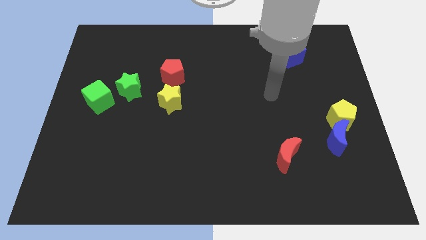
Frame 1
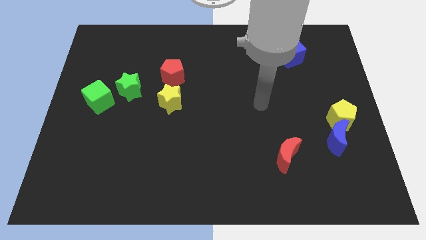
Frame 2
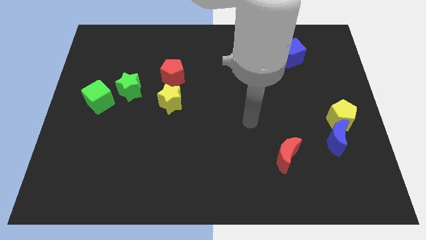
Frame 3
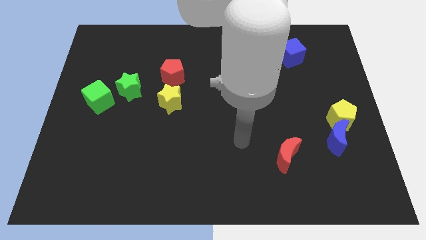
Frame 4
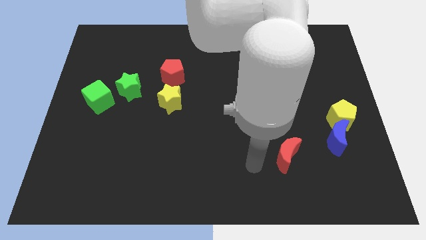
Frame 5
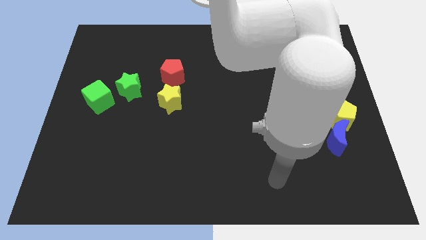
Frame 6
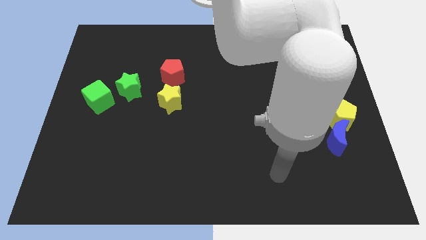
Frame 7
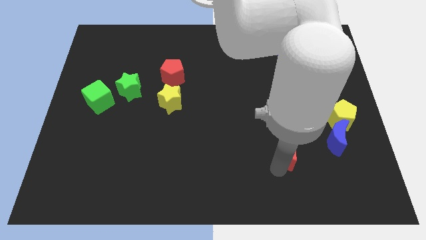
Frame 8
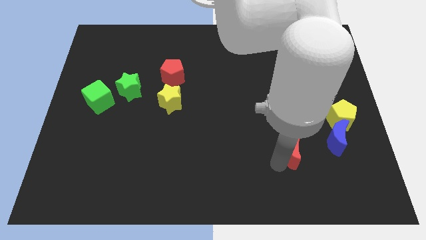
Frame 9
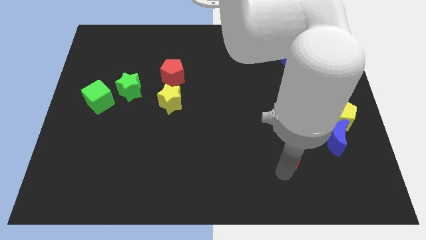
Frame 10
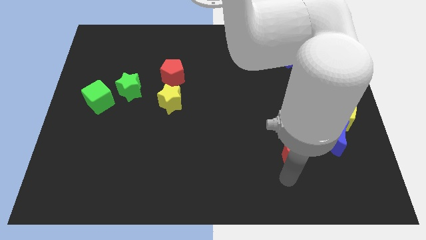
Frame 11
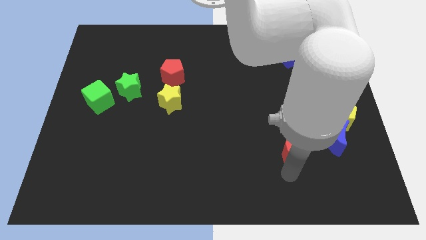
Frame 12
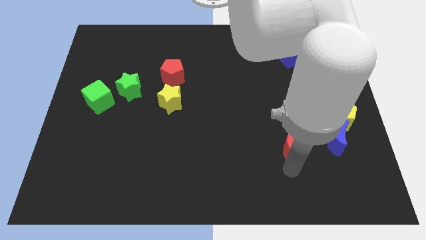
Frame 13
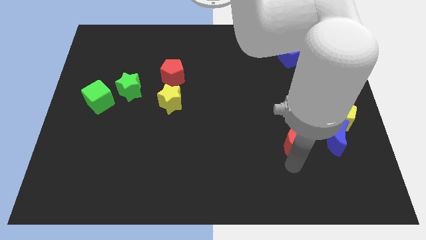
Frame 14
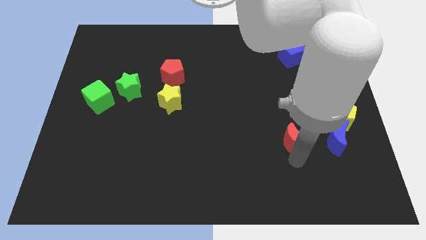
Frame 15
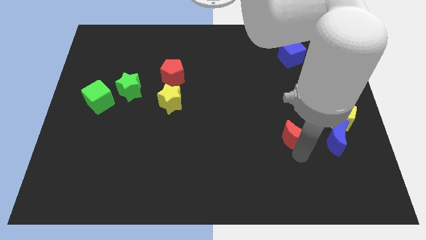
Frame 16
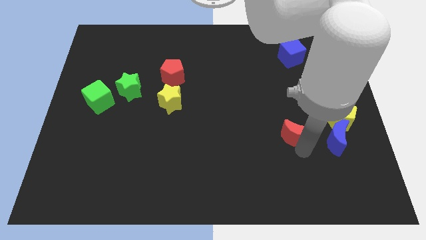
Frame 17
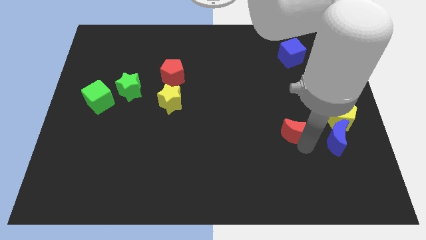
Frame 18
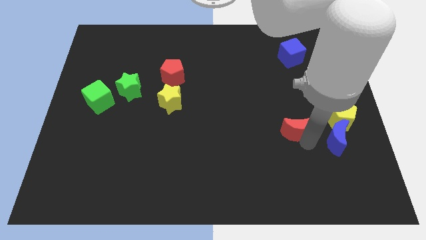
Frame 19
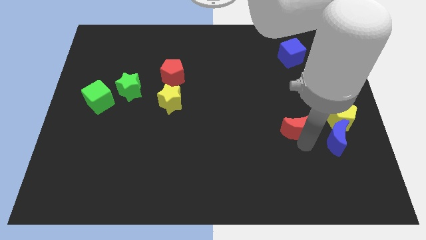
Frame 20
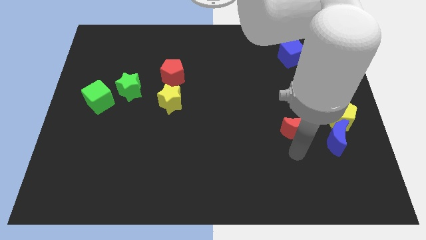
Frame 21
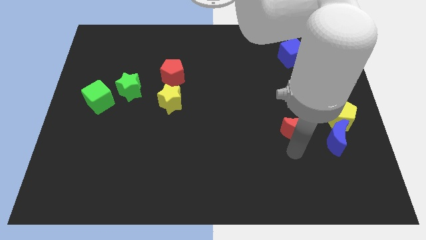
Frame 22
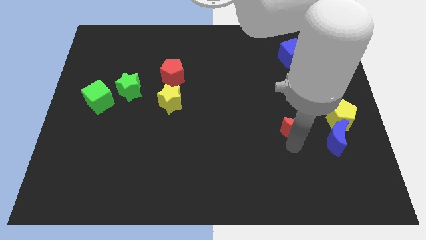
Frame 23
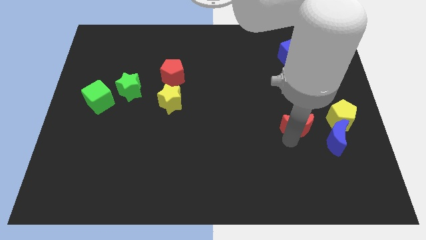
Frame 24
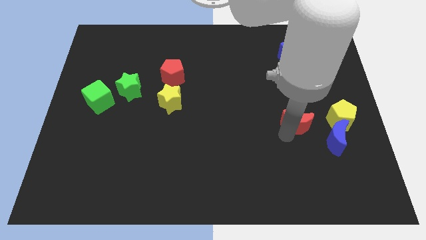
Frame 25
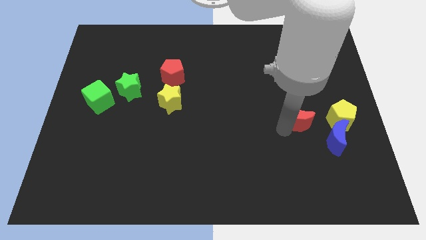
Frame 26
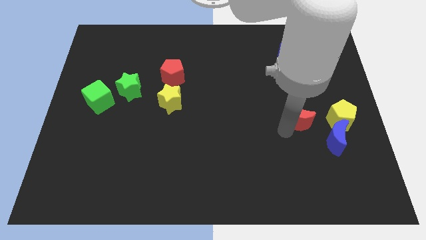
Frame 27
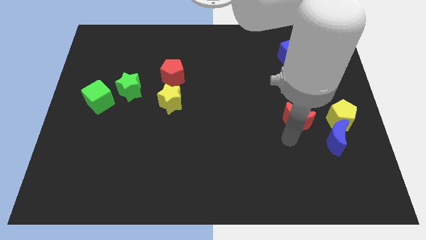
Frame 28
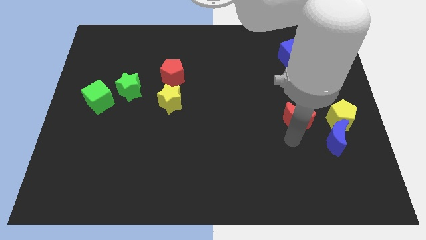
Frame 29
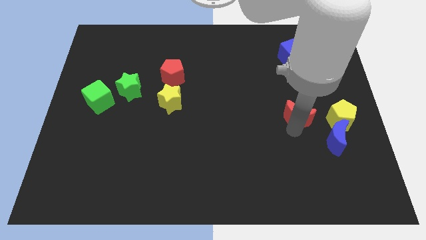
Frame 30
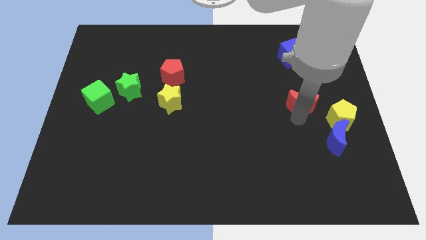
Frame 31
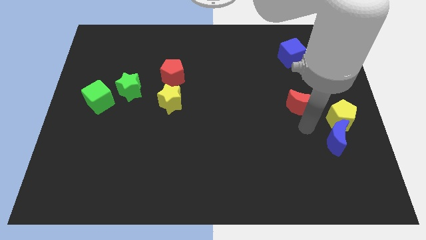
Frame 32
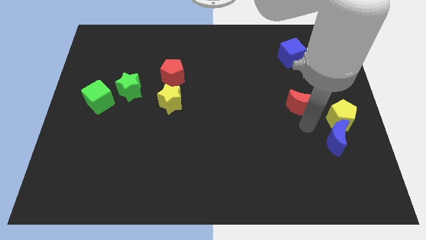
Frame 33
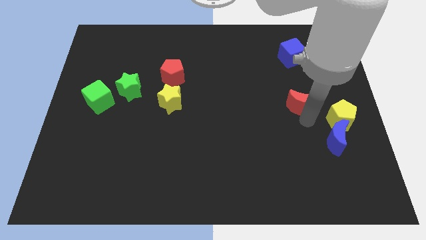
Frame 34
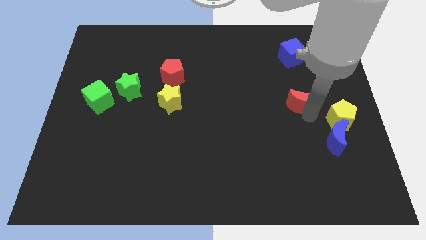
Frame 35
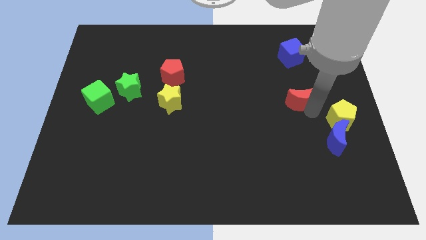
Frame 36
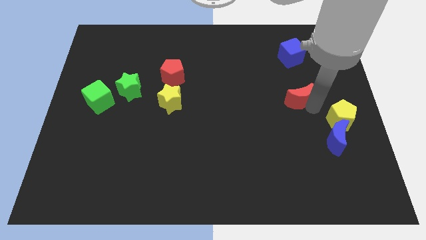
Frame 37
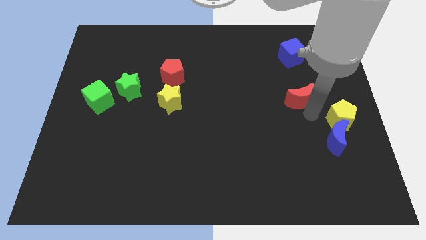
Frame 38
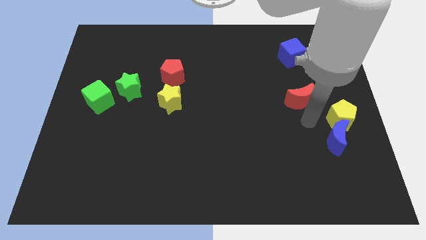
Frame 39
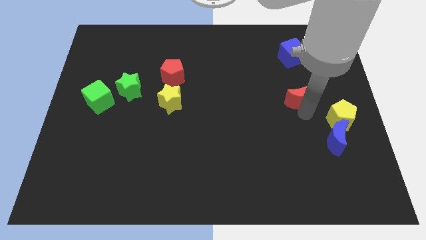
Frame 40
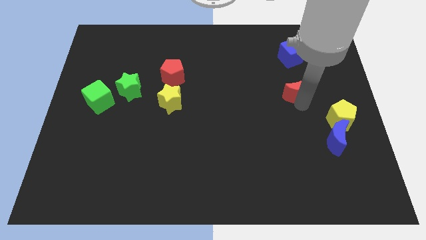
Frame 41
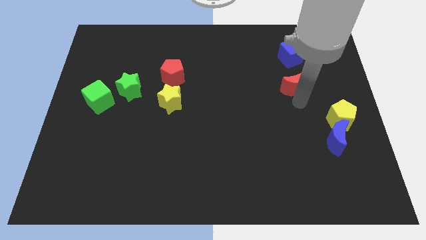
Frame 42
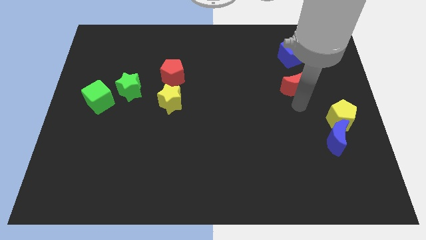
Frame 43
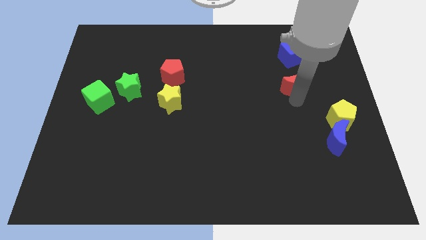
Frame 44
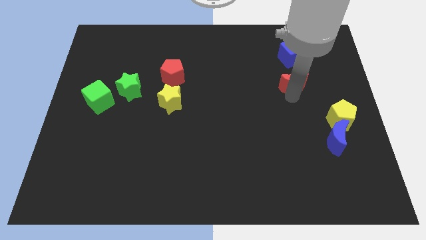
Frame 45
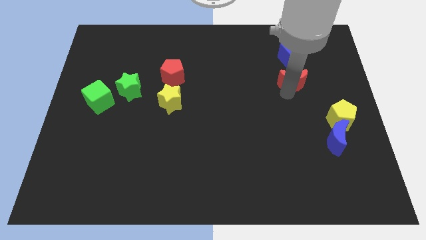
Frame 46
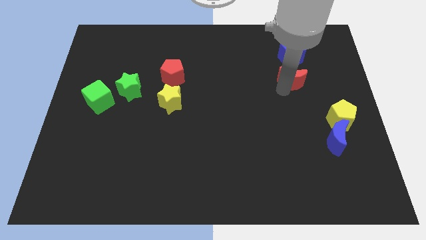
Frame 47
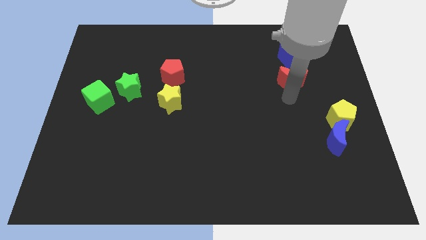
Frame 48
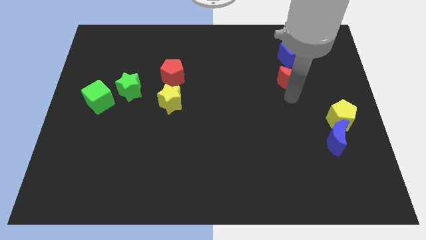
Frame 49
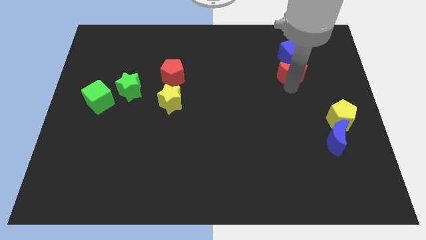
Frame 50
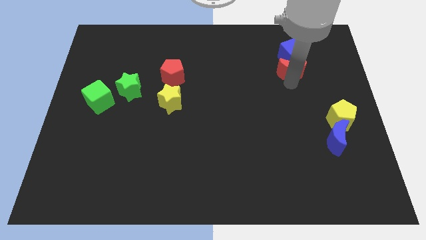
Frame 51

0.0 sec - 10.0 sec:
put the red moon next to the blue cube

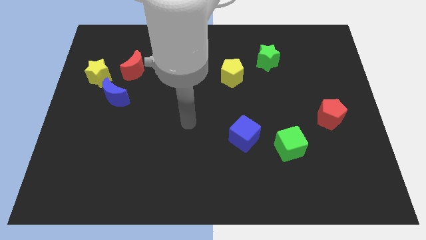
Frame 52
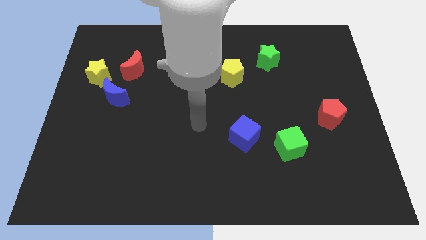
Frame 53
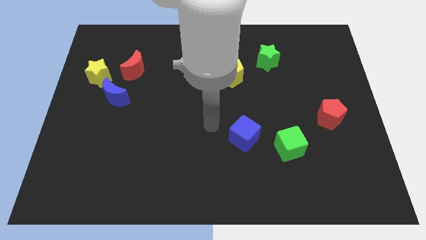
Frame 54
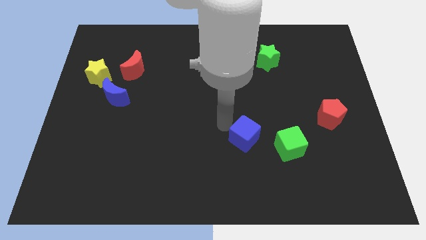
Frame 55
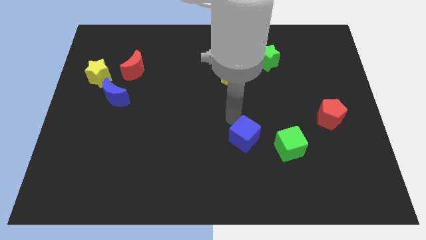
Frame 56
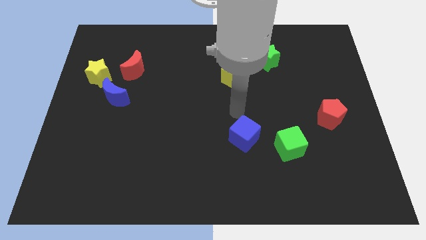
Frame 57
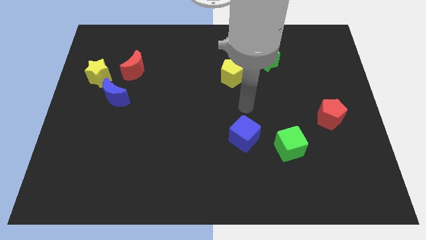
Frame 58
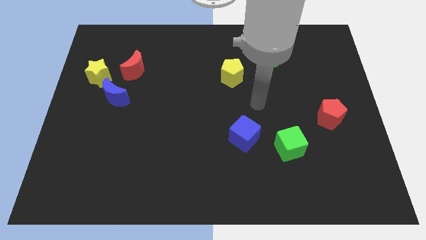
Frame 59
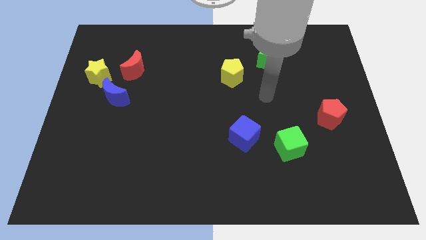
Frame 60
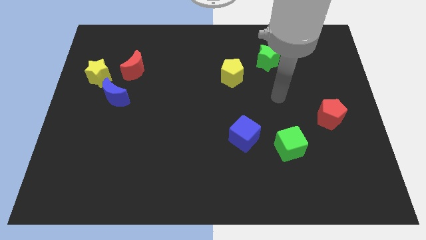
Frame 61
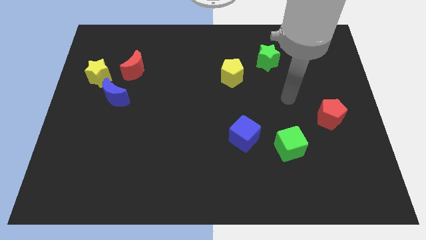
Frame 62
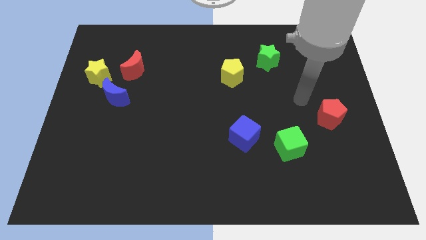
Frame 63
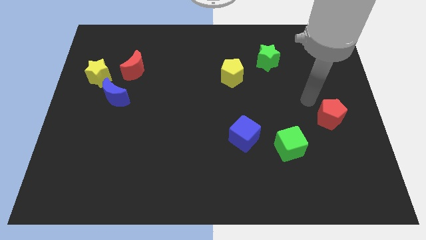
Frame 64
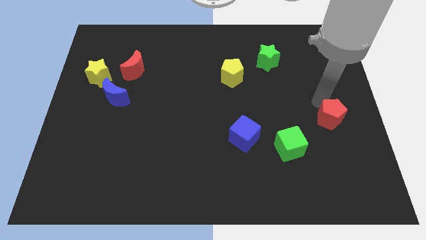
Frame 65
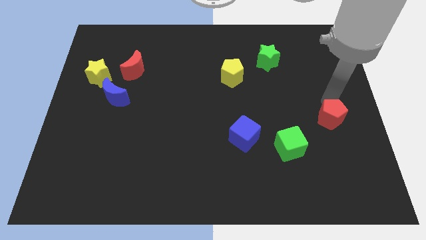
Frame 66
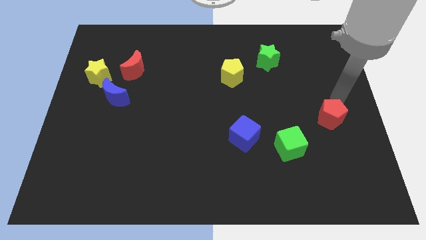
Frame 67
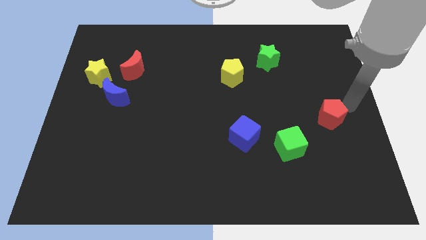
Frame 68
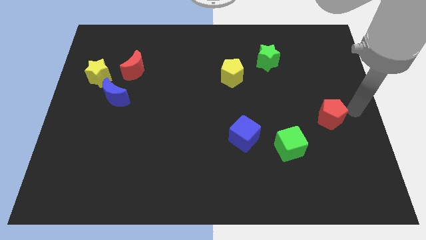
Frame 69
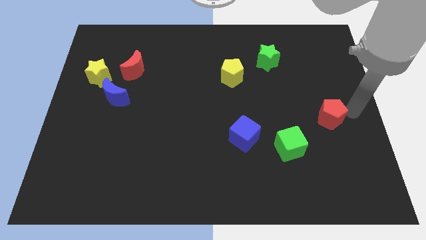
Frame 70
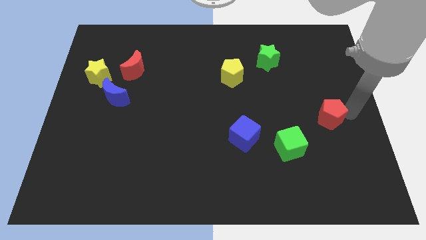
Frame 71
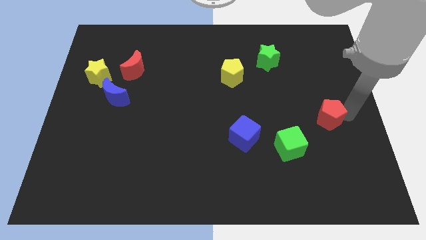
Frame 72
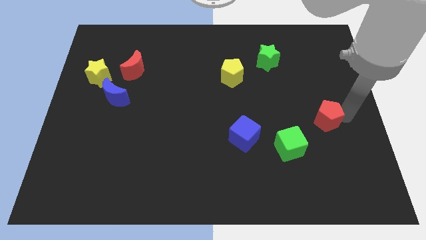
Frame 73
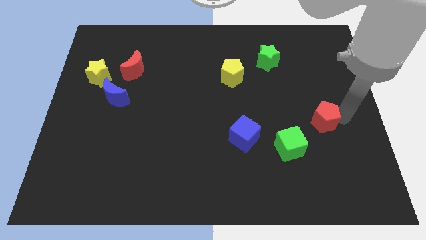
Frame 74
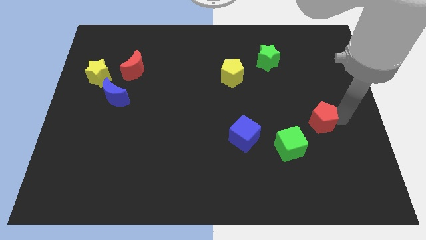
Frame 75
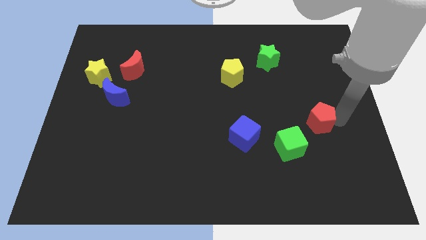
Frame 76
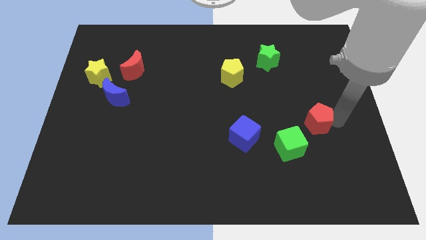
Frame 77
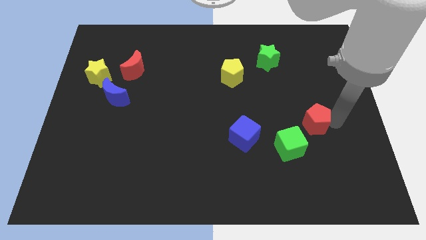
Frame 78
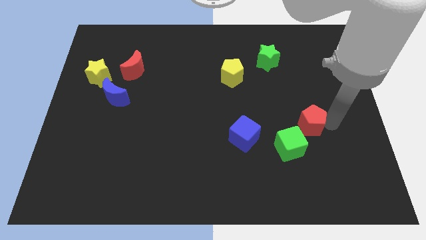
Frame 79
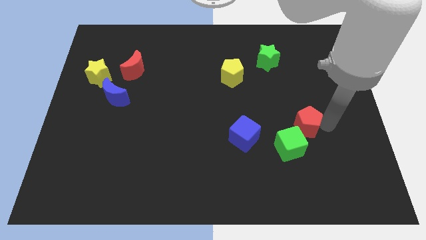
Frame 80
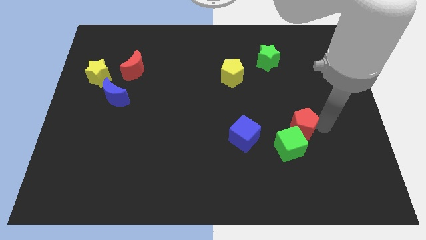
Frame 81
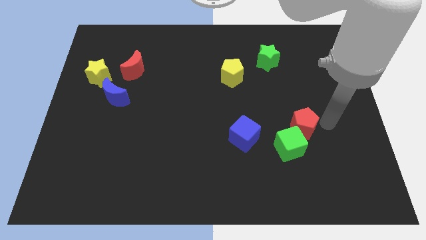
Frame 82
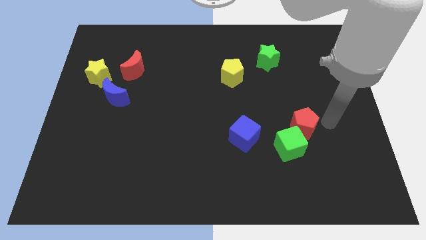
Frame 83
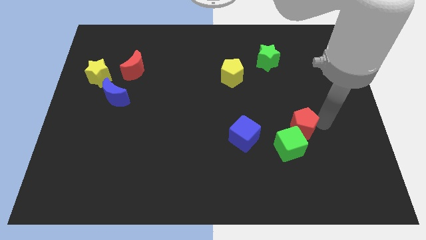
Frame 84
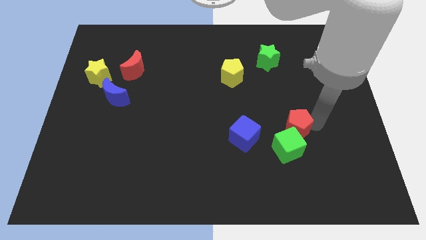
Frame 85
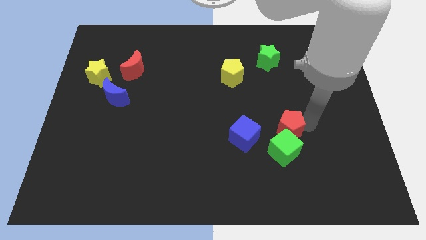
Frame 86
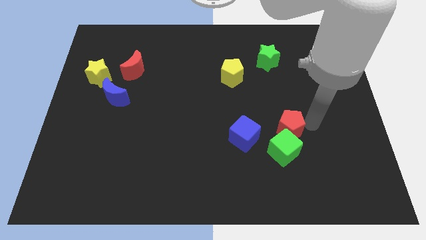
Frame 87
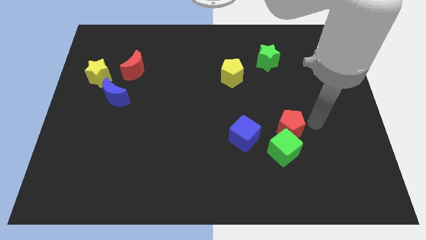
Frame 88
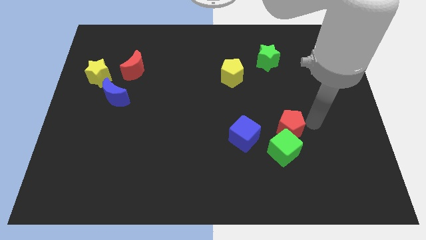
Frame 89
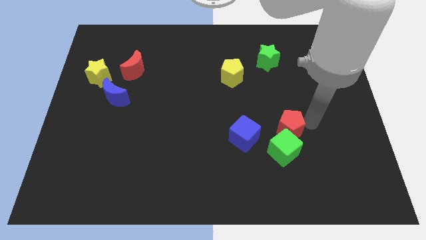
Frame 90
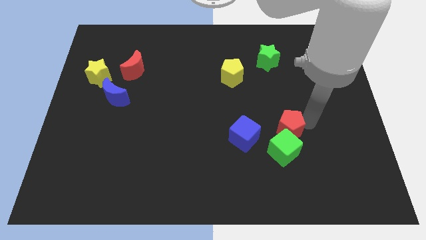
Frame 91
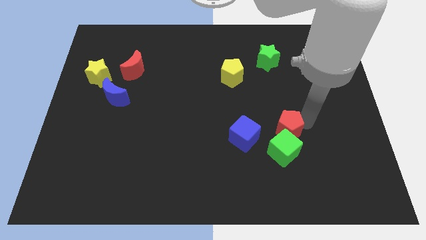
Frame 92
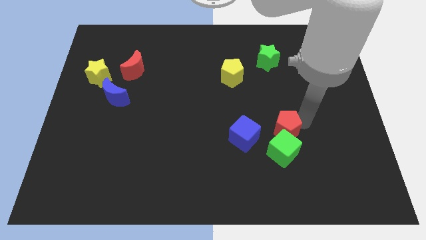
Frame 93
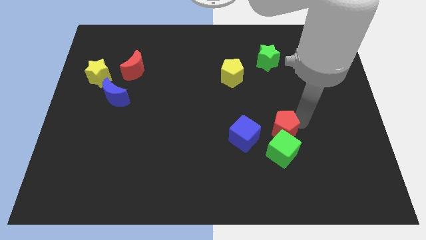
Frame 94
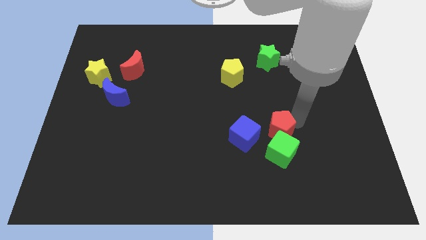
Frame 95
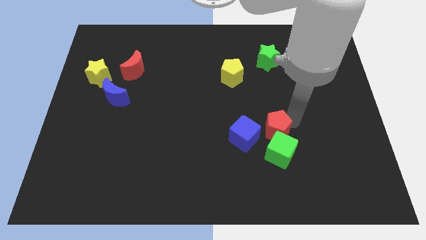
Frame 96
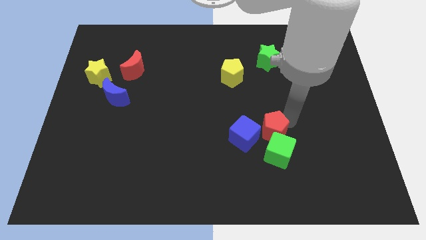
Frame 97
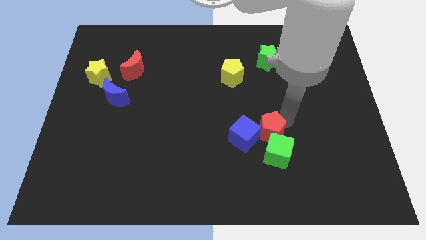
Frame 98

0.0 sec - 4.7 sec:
slide the red pentagon towards the blue cube
